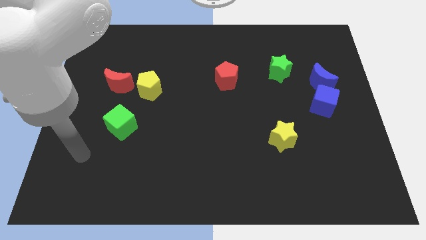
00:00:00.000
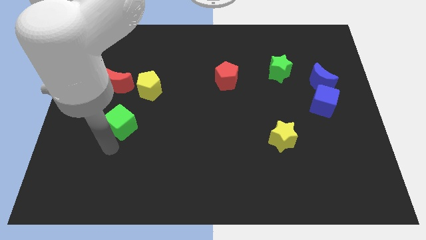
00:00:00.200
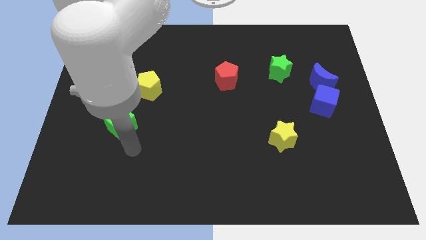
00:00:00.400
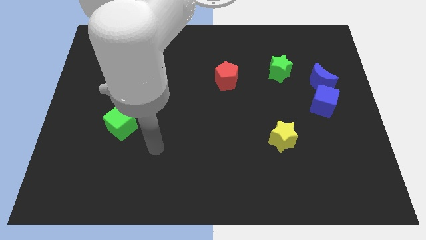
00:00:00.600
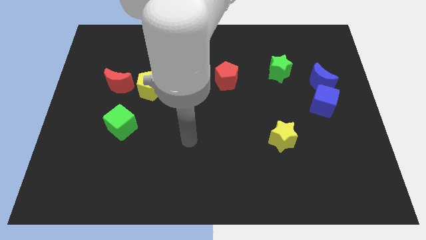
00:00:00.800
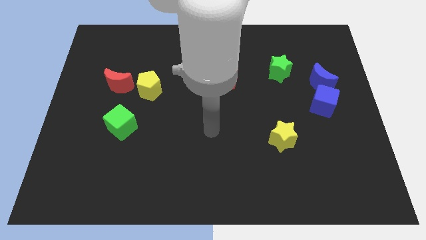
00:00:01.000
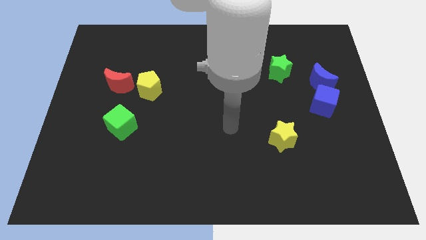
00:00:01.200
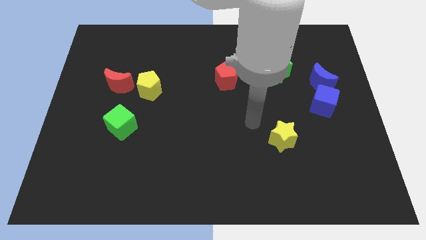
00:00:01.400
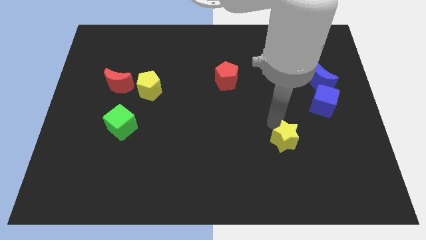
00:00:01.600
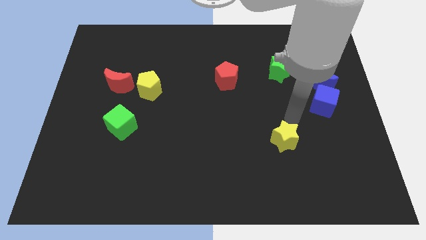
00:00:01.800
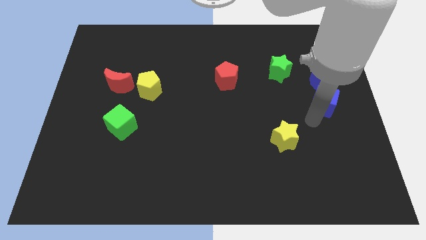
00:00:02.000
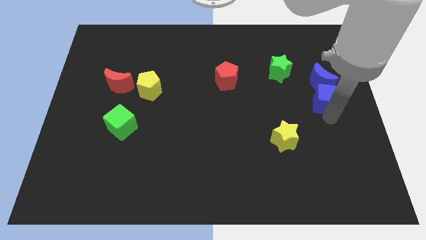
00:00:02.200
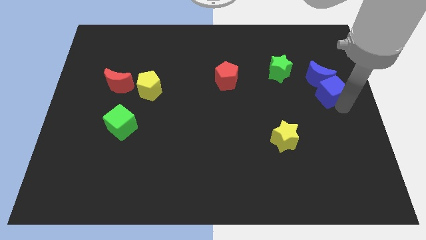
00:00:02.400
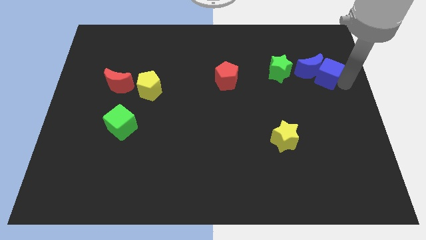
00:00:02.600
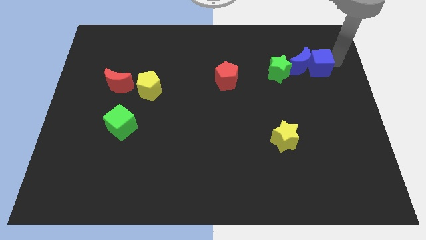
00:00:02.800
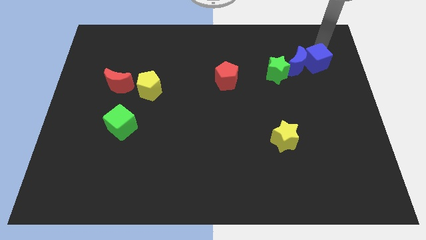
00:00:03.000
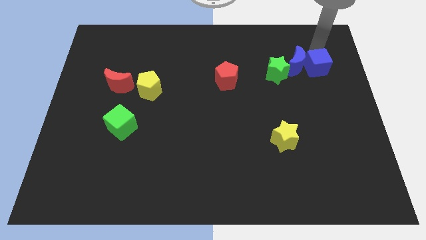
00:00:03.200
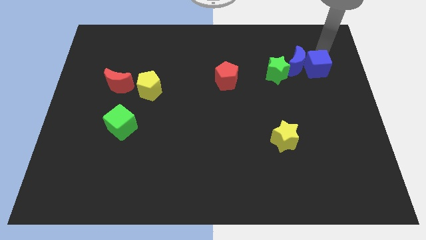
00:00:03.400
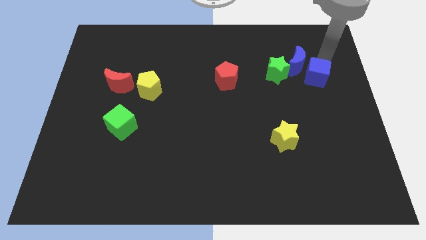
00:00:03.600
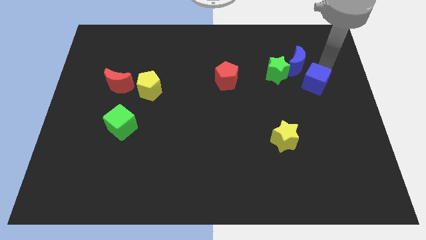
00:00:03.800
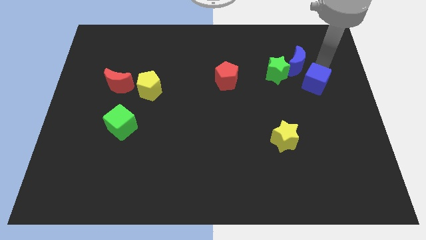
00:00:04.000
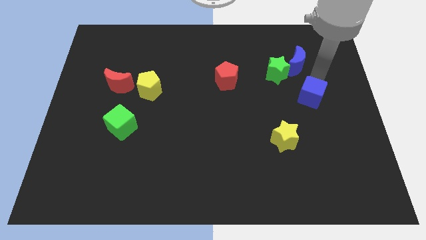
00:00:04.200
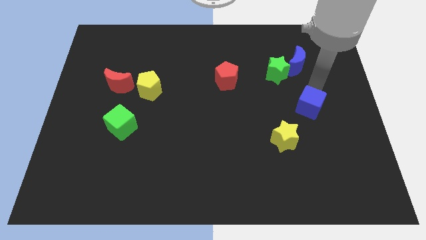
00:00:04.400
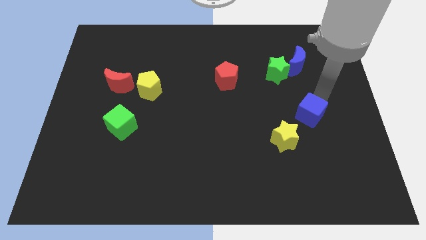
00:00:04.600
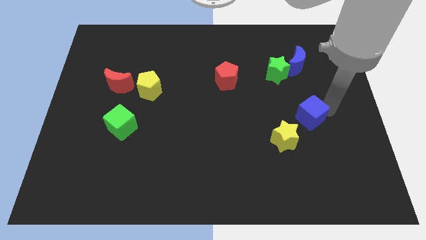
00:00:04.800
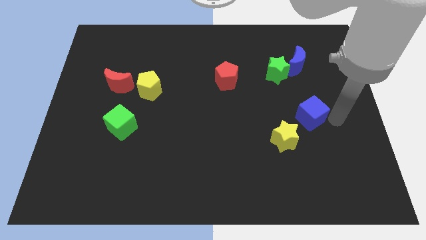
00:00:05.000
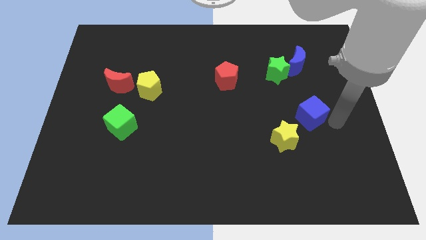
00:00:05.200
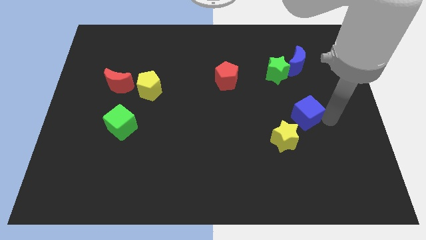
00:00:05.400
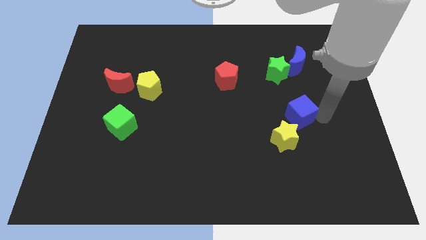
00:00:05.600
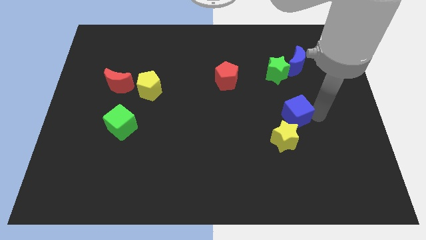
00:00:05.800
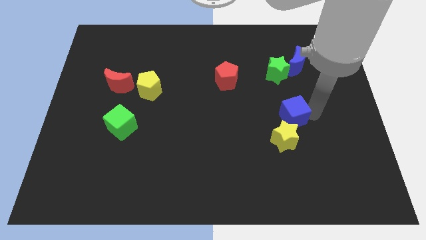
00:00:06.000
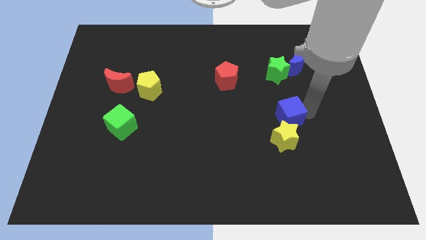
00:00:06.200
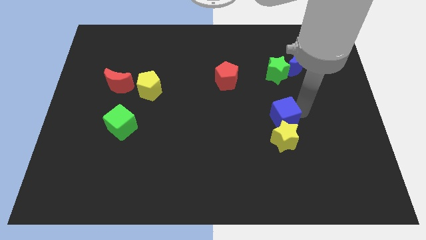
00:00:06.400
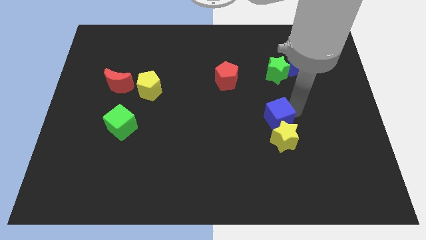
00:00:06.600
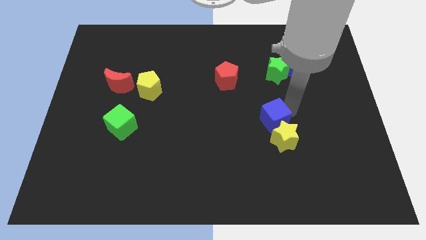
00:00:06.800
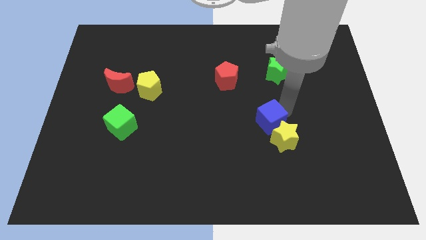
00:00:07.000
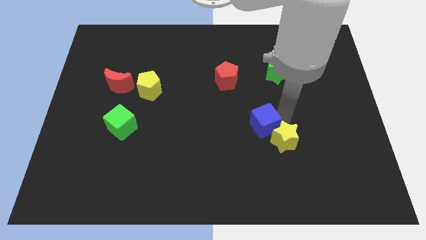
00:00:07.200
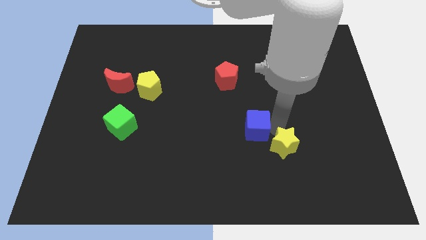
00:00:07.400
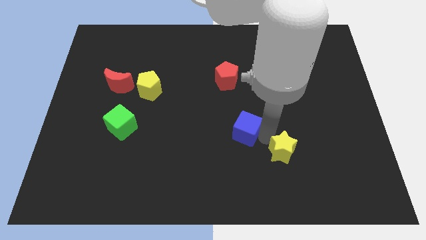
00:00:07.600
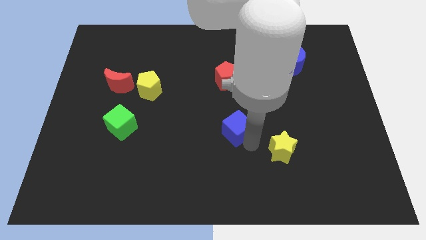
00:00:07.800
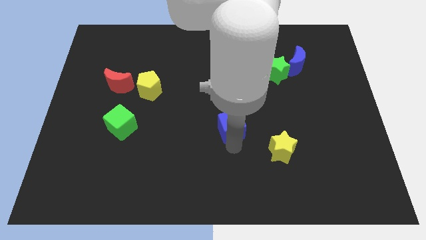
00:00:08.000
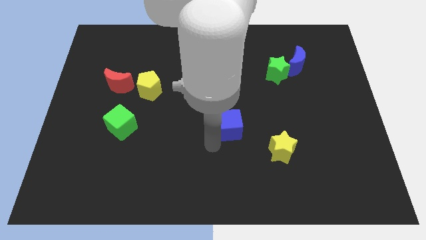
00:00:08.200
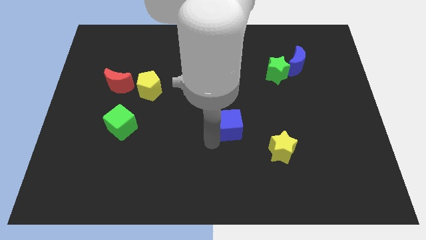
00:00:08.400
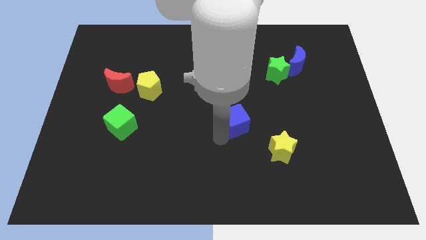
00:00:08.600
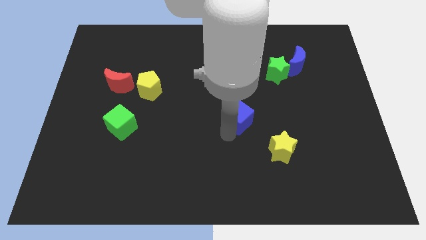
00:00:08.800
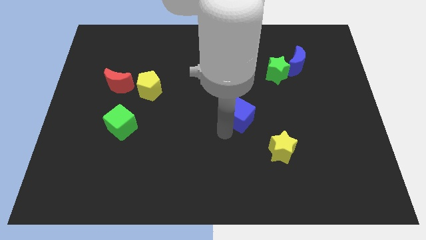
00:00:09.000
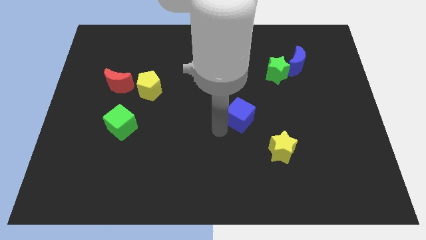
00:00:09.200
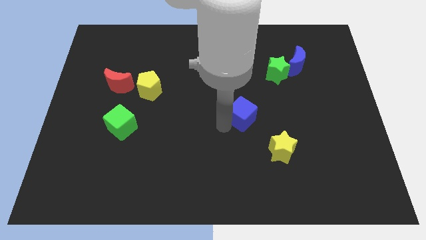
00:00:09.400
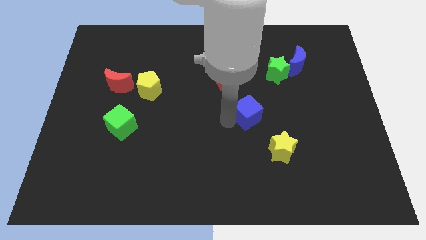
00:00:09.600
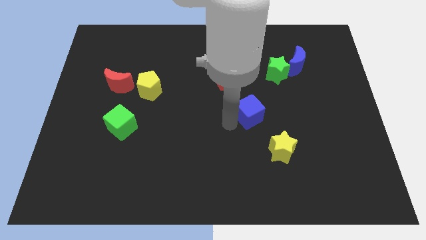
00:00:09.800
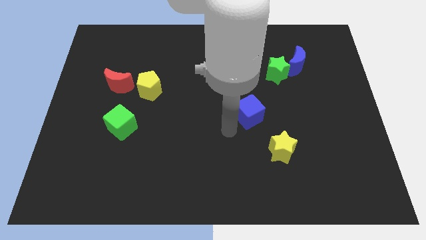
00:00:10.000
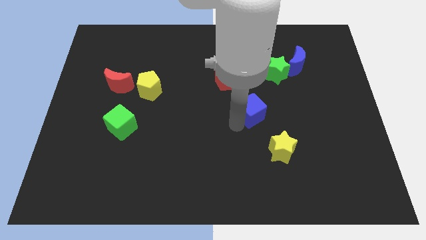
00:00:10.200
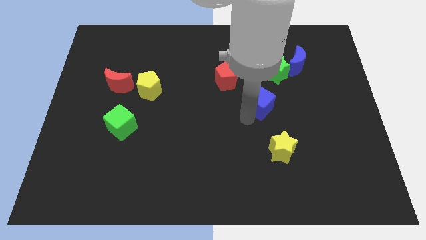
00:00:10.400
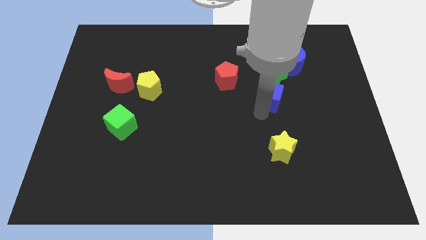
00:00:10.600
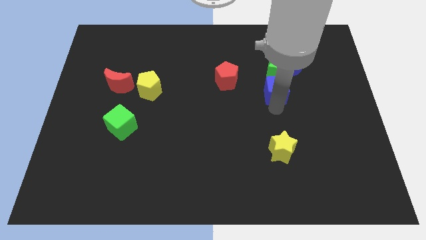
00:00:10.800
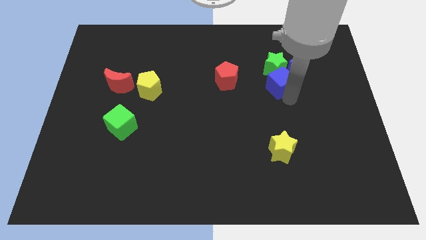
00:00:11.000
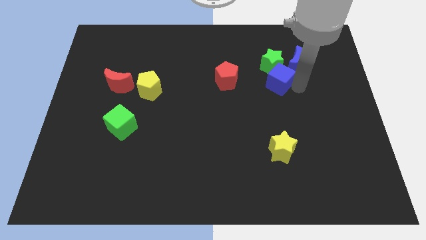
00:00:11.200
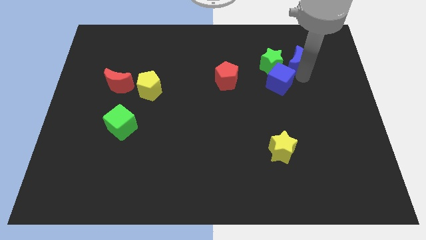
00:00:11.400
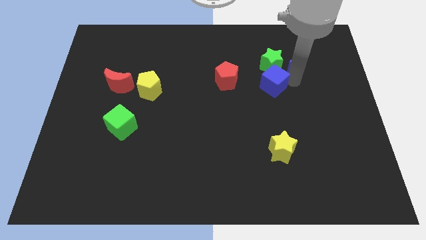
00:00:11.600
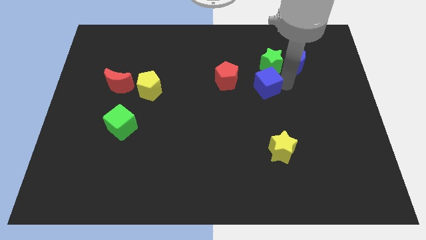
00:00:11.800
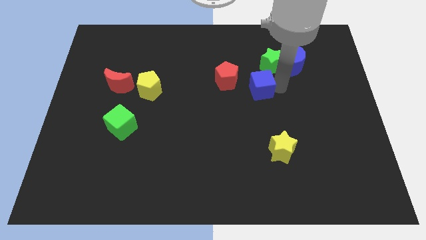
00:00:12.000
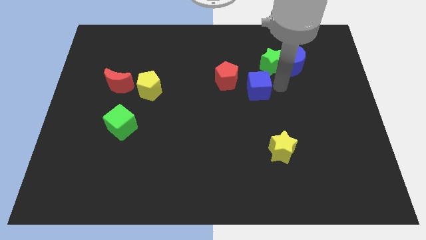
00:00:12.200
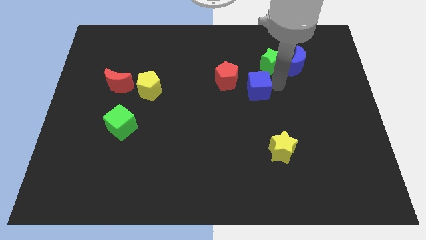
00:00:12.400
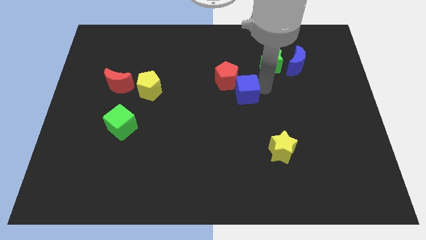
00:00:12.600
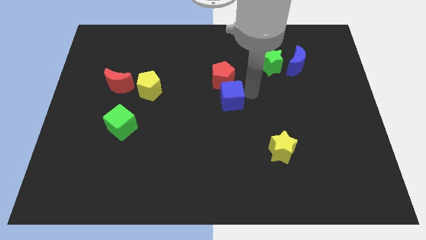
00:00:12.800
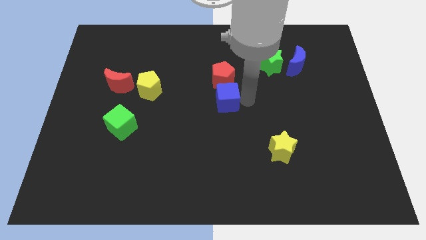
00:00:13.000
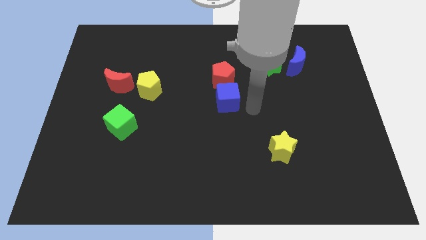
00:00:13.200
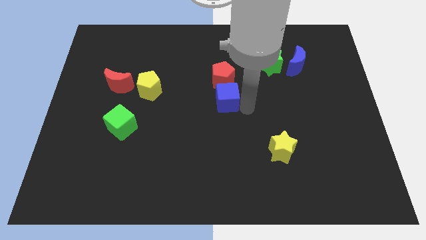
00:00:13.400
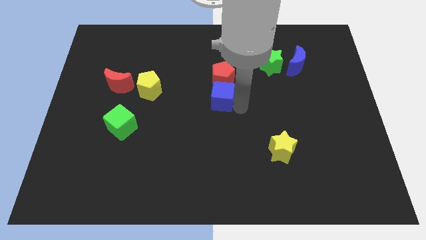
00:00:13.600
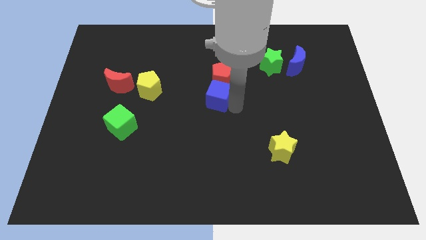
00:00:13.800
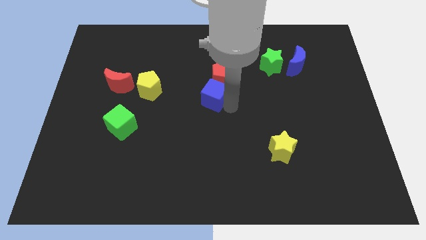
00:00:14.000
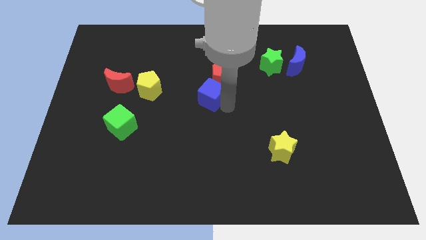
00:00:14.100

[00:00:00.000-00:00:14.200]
slide the blue cube right of the yellow pentagon
